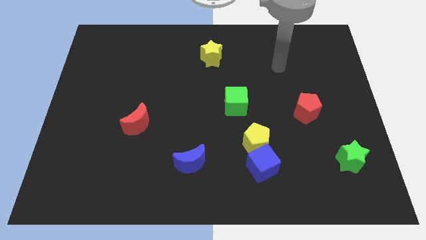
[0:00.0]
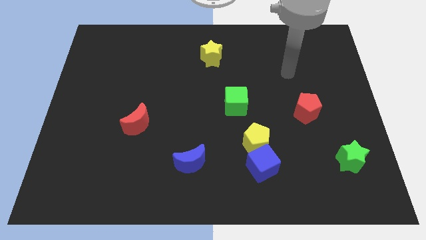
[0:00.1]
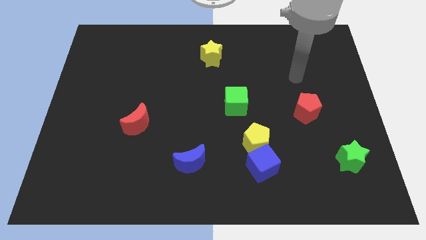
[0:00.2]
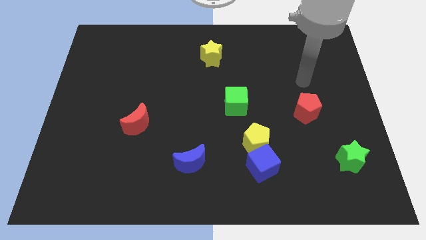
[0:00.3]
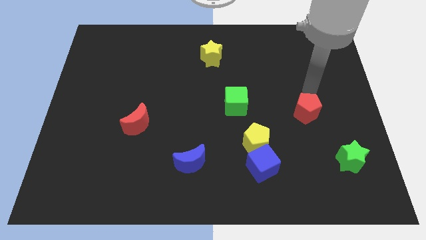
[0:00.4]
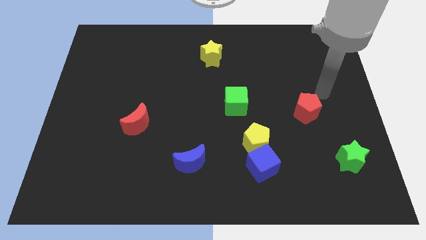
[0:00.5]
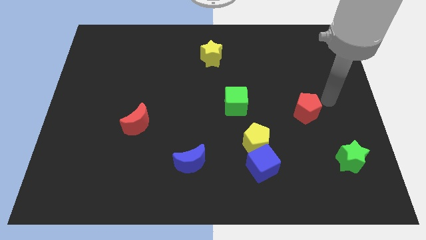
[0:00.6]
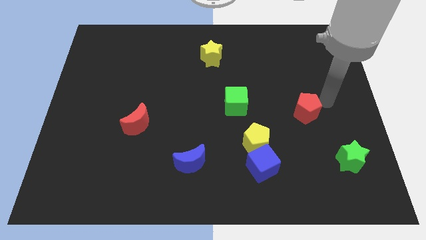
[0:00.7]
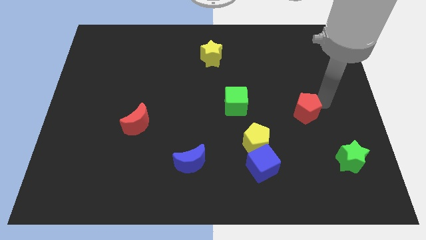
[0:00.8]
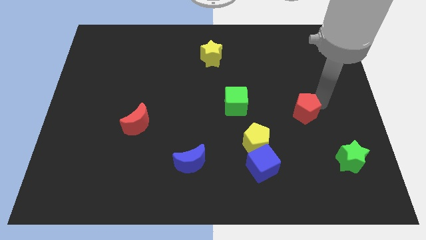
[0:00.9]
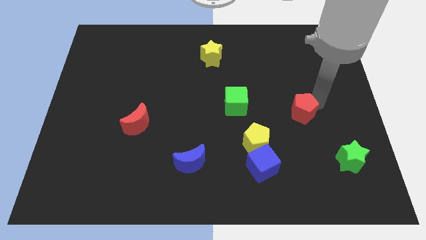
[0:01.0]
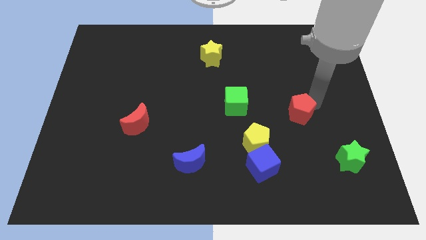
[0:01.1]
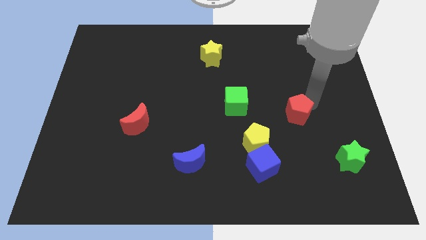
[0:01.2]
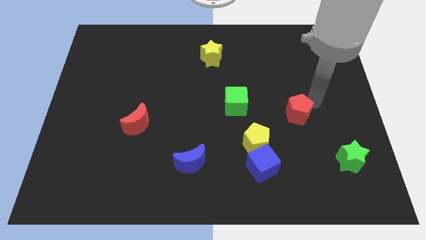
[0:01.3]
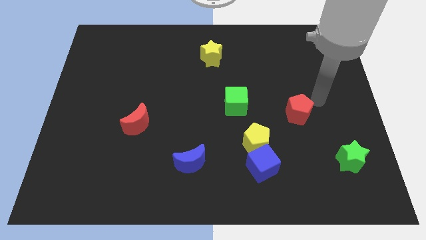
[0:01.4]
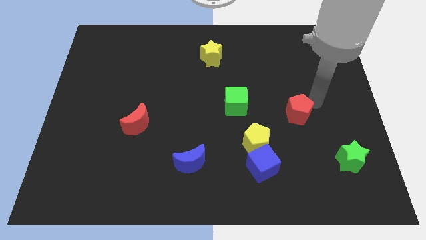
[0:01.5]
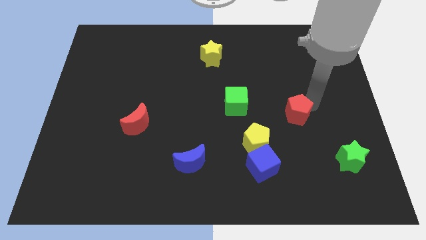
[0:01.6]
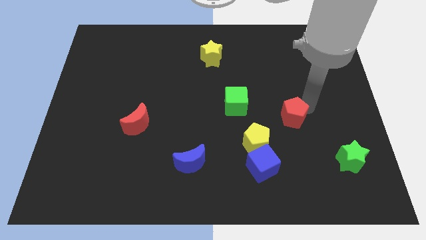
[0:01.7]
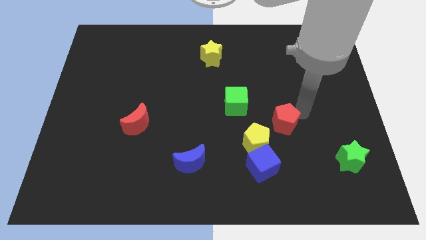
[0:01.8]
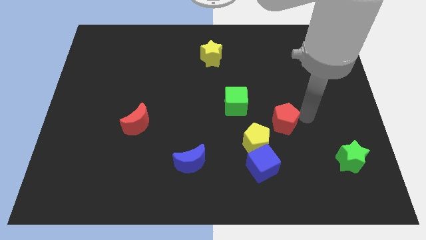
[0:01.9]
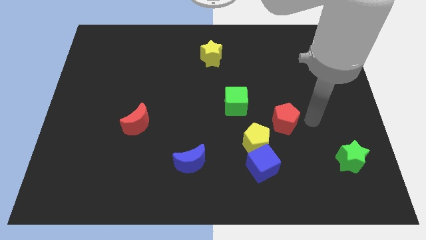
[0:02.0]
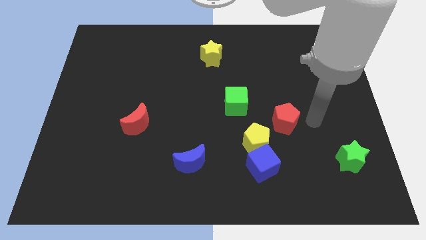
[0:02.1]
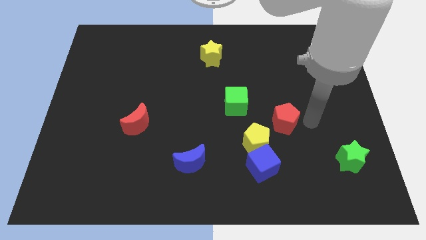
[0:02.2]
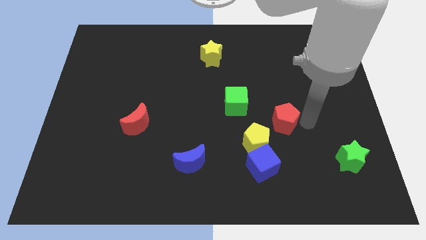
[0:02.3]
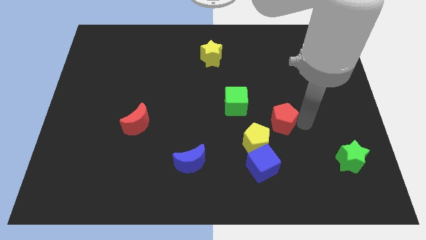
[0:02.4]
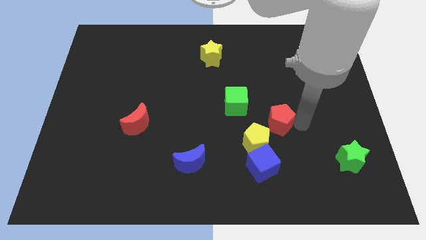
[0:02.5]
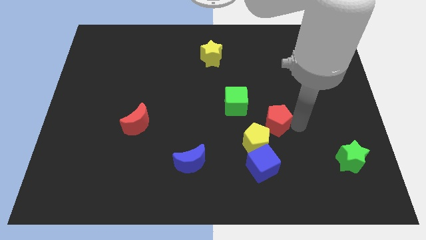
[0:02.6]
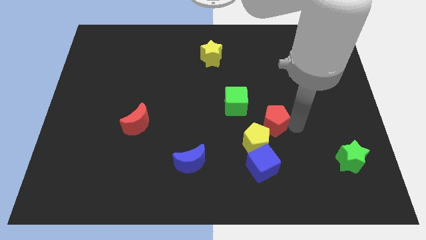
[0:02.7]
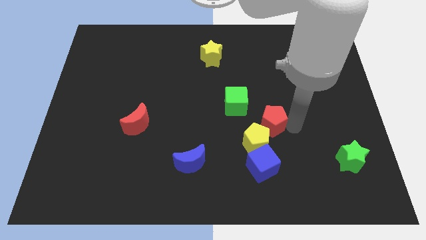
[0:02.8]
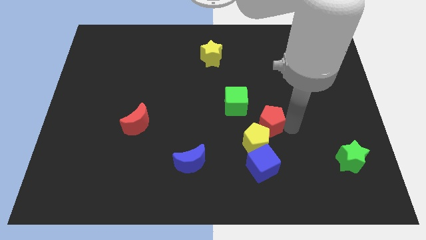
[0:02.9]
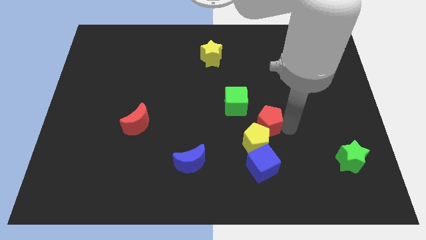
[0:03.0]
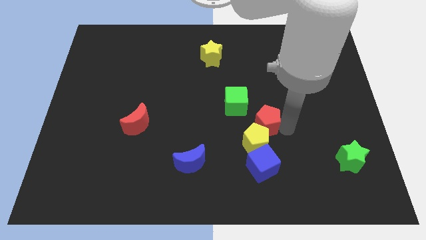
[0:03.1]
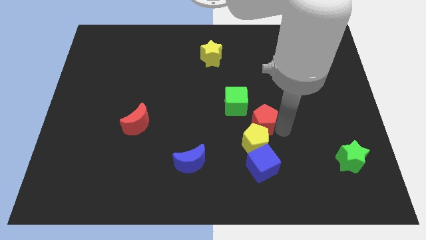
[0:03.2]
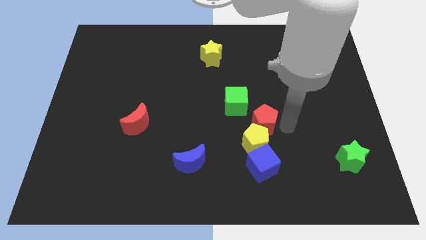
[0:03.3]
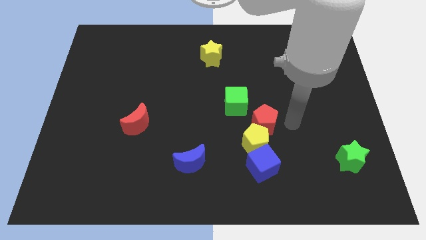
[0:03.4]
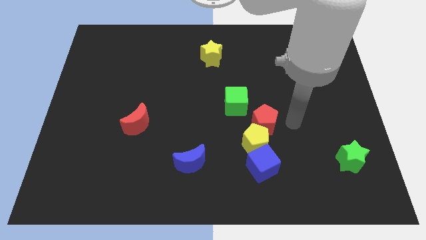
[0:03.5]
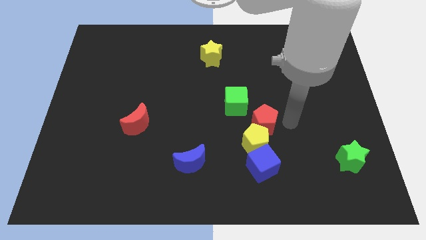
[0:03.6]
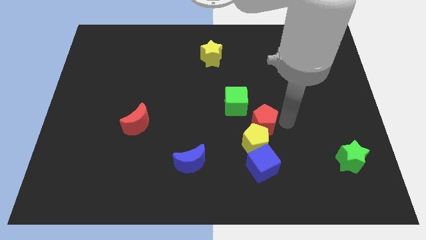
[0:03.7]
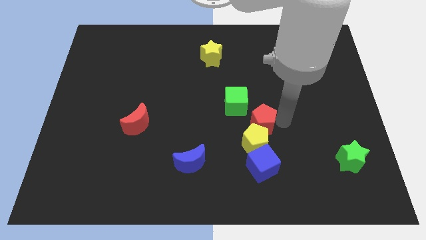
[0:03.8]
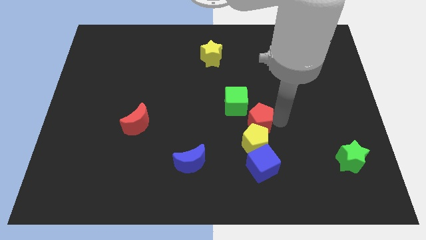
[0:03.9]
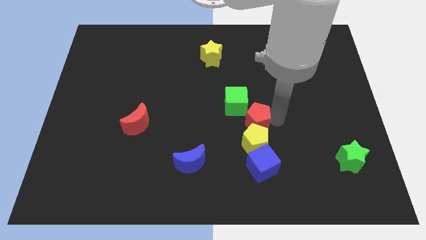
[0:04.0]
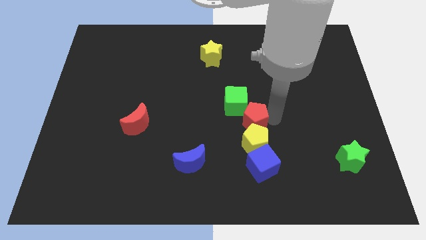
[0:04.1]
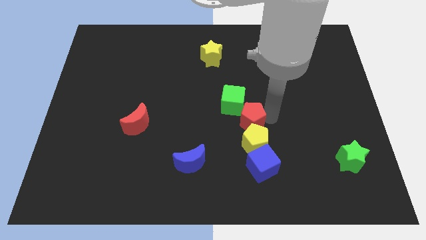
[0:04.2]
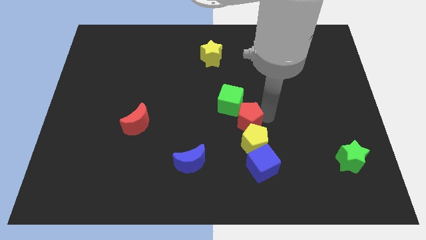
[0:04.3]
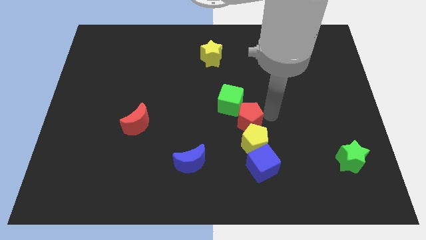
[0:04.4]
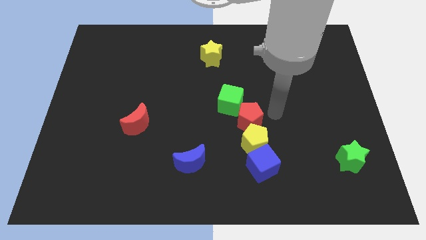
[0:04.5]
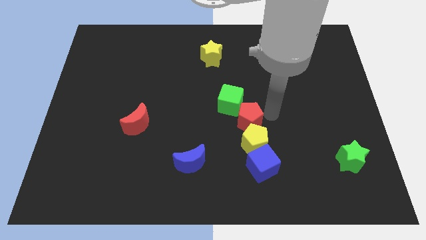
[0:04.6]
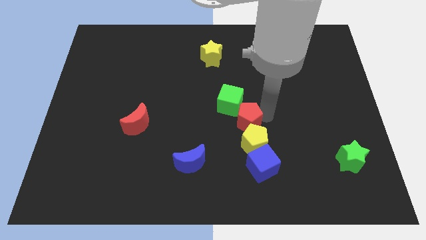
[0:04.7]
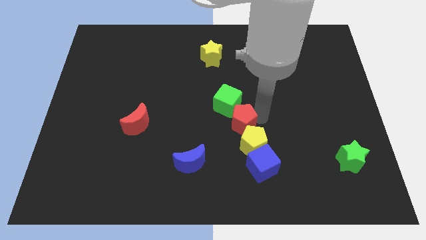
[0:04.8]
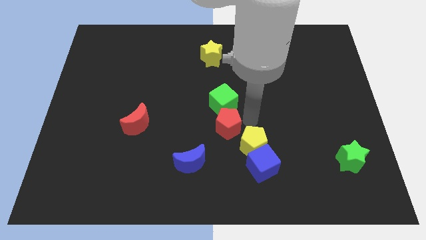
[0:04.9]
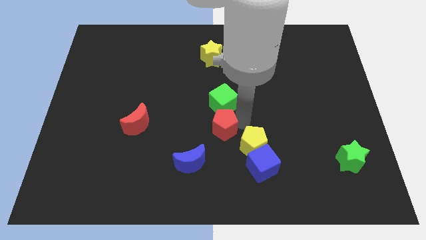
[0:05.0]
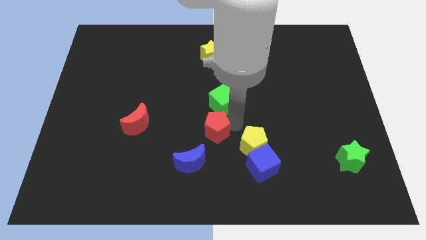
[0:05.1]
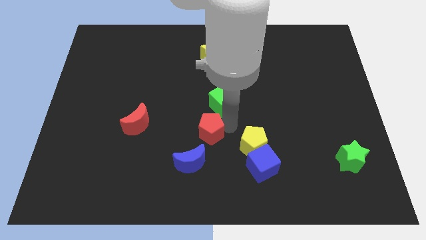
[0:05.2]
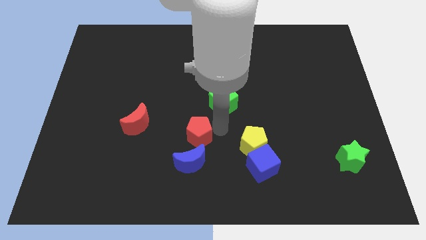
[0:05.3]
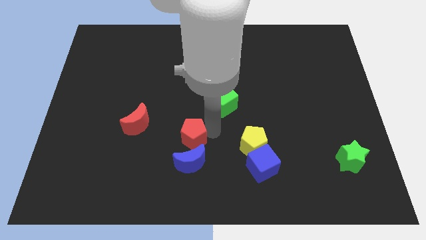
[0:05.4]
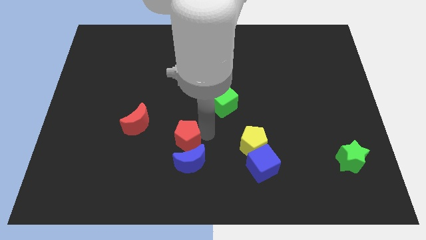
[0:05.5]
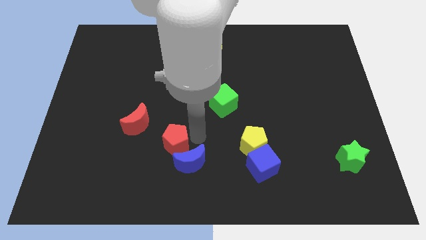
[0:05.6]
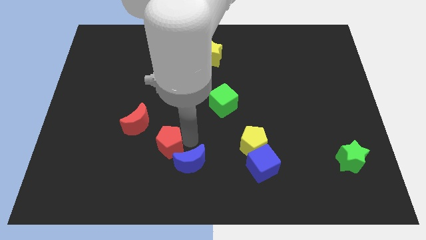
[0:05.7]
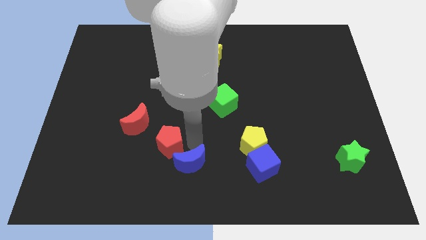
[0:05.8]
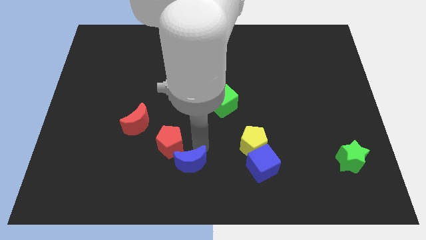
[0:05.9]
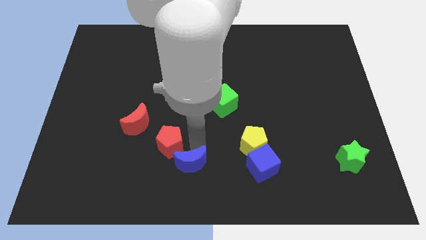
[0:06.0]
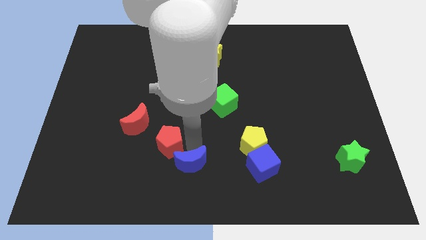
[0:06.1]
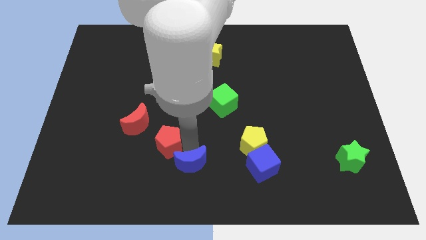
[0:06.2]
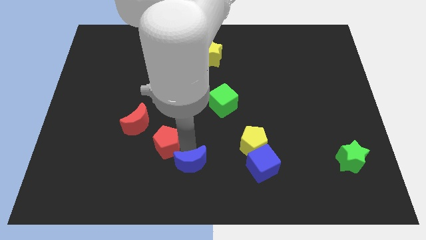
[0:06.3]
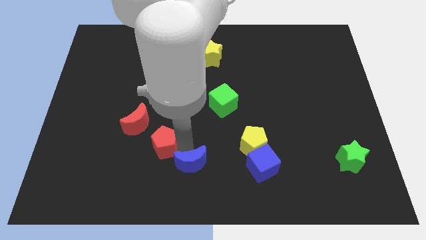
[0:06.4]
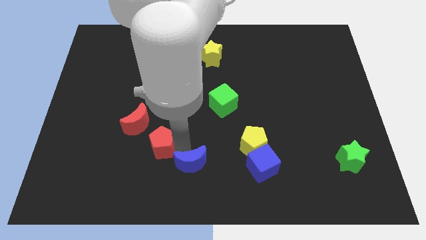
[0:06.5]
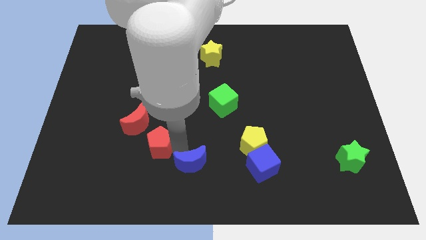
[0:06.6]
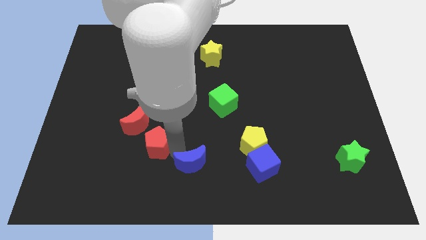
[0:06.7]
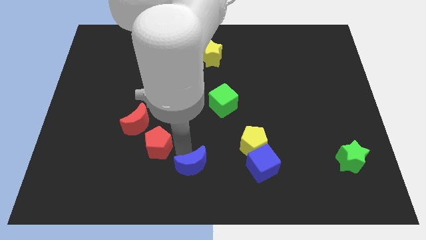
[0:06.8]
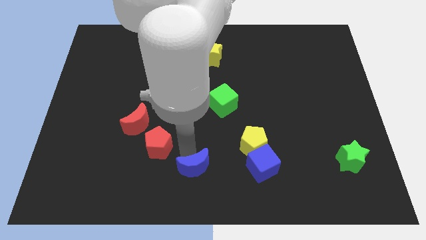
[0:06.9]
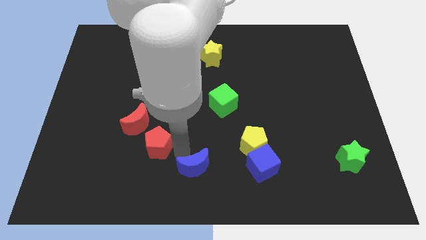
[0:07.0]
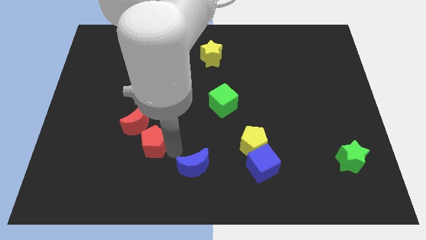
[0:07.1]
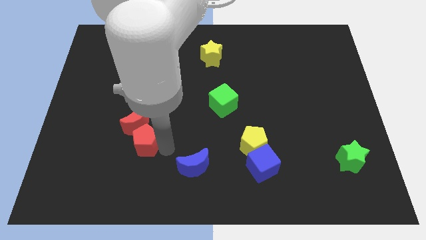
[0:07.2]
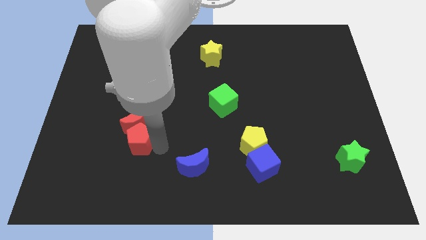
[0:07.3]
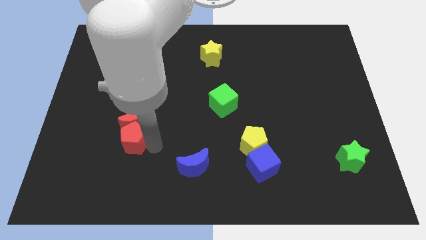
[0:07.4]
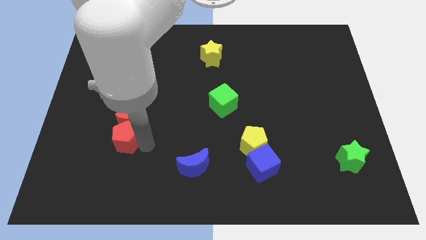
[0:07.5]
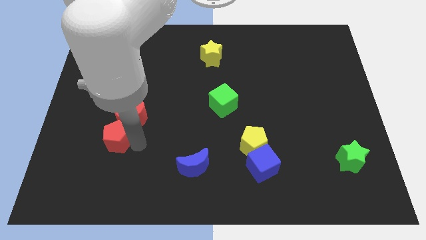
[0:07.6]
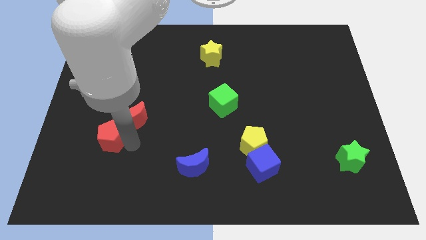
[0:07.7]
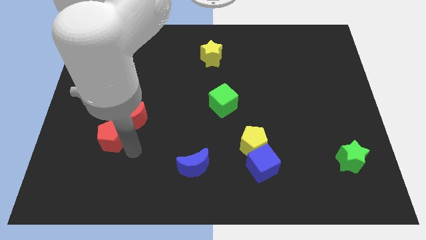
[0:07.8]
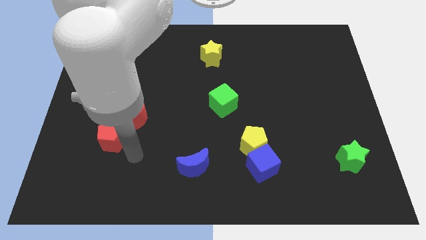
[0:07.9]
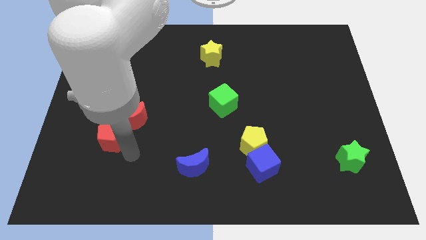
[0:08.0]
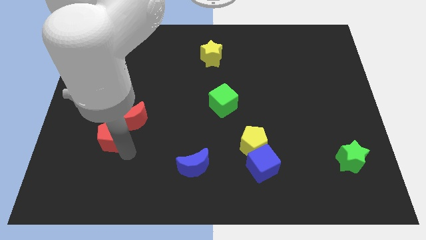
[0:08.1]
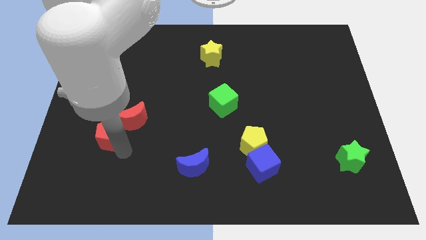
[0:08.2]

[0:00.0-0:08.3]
slide the red pentagon just left of the red moon
